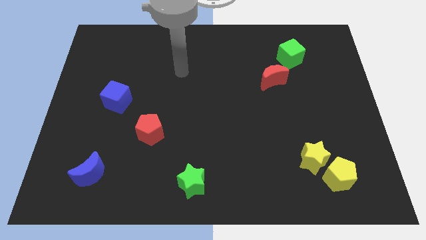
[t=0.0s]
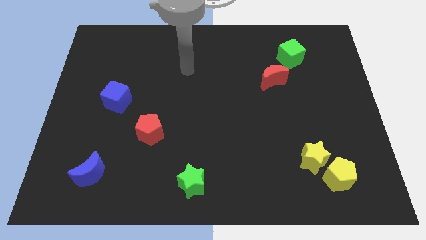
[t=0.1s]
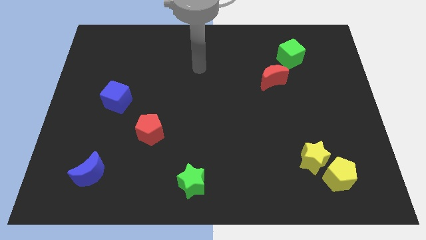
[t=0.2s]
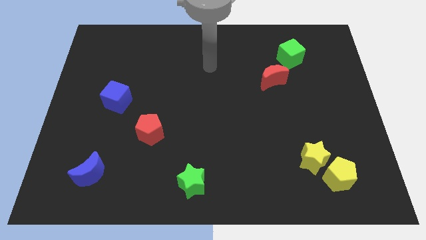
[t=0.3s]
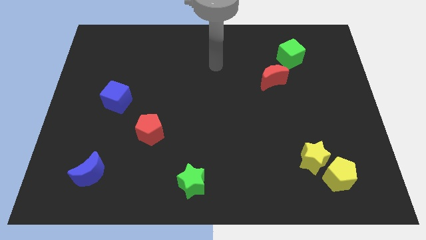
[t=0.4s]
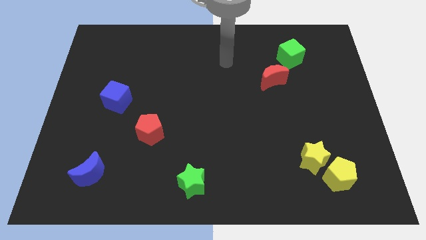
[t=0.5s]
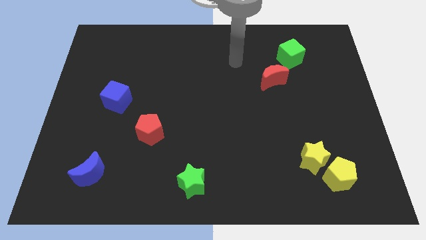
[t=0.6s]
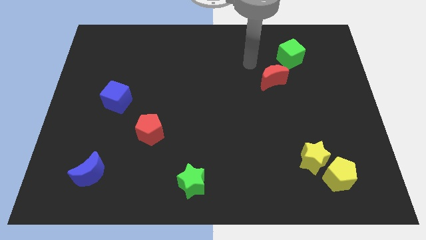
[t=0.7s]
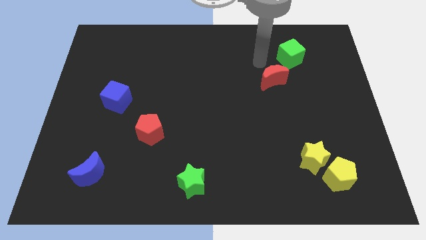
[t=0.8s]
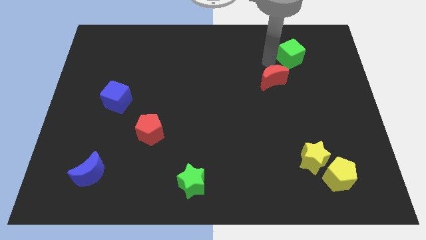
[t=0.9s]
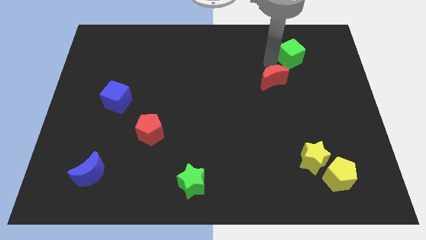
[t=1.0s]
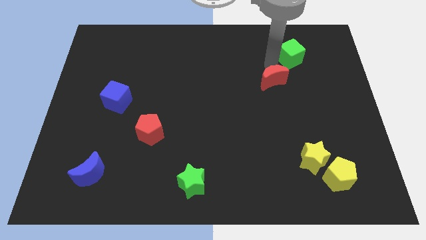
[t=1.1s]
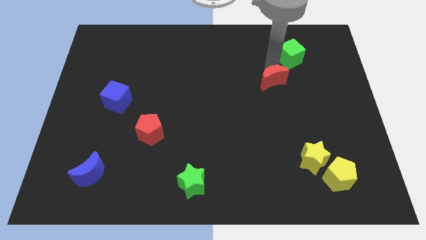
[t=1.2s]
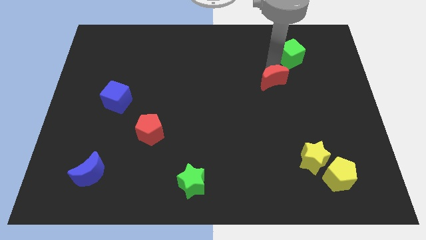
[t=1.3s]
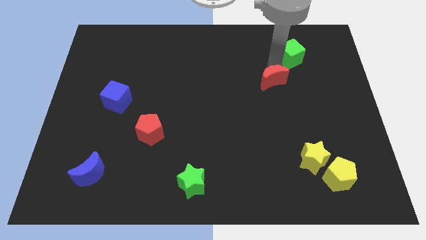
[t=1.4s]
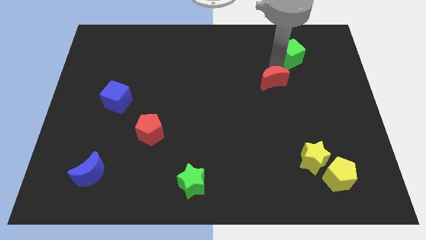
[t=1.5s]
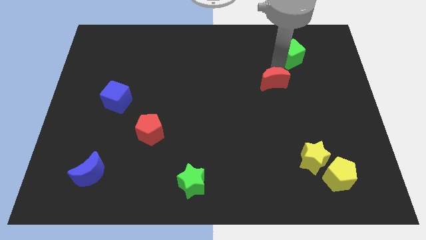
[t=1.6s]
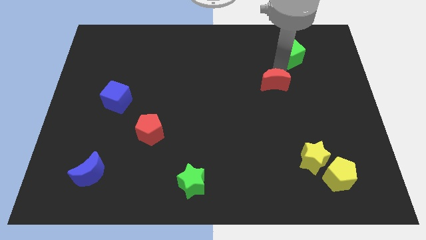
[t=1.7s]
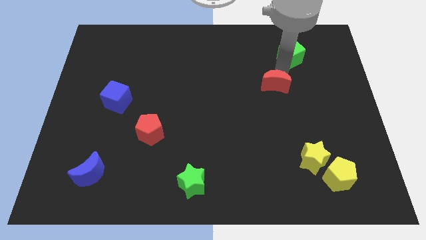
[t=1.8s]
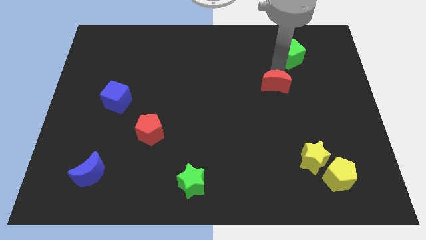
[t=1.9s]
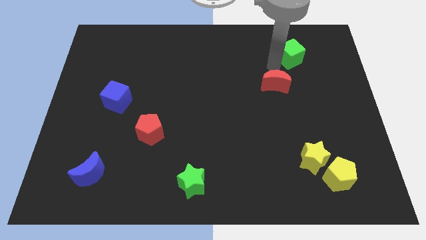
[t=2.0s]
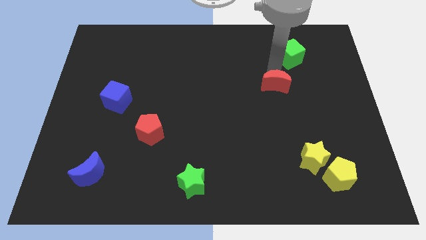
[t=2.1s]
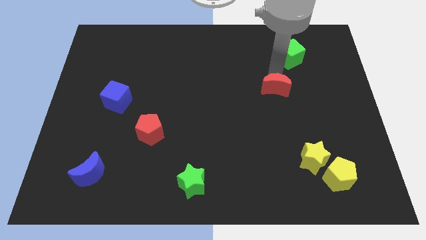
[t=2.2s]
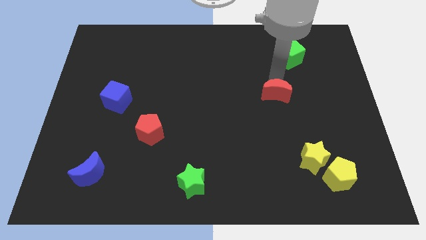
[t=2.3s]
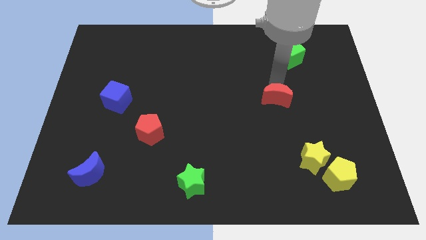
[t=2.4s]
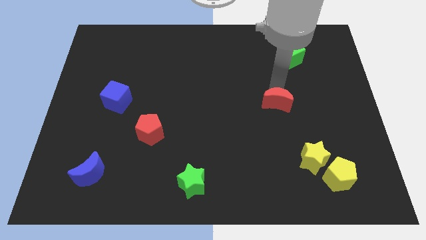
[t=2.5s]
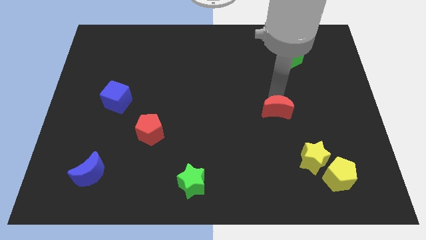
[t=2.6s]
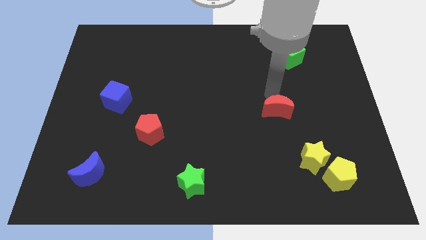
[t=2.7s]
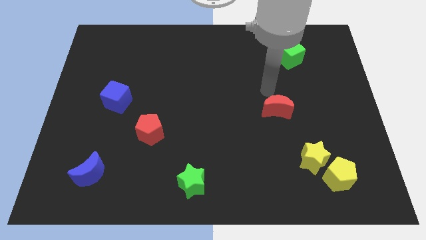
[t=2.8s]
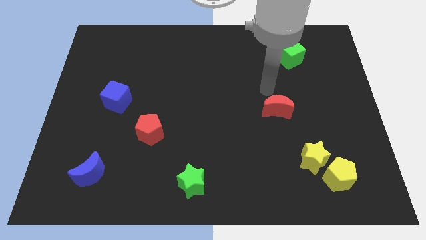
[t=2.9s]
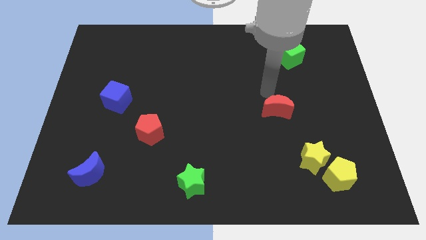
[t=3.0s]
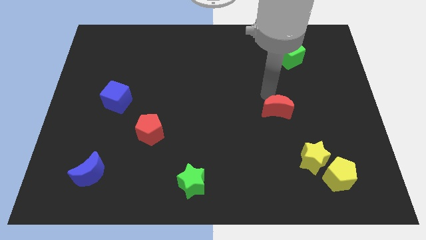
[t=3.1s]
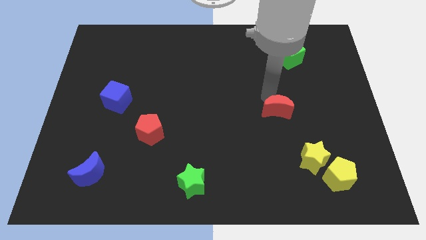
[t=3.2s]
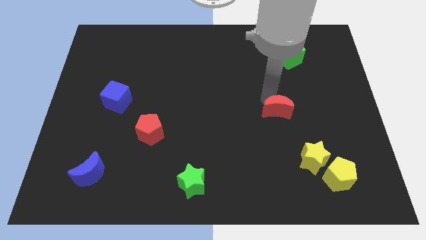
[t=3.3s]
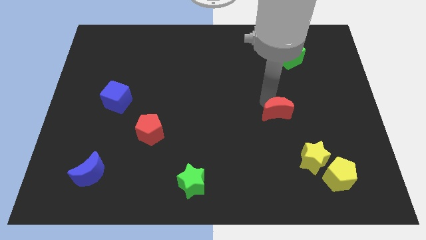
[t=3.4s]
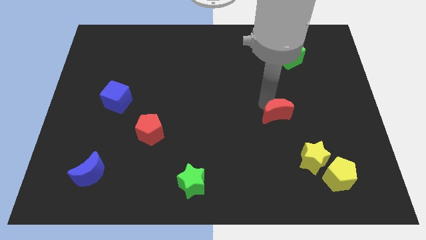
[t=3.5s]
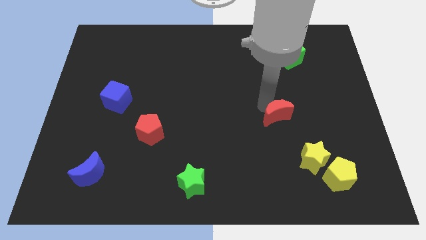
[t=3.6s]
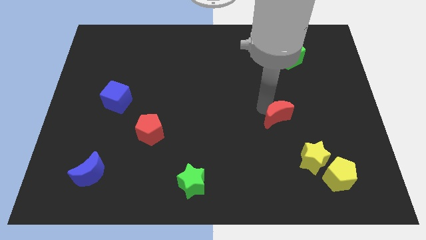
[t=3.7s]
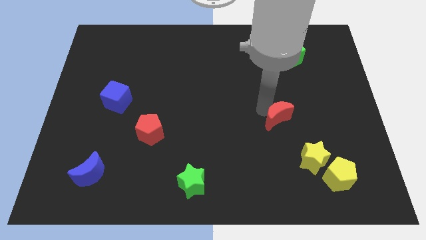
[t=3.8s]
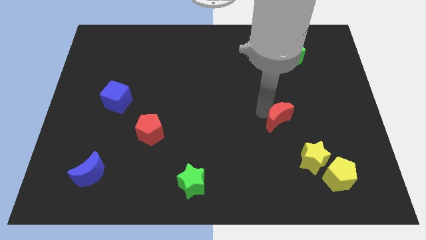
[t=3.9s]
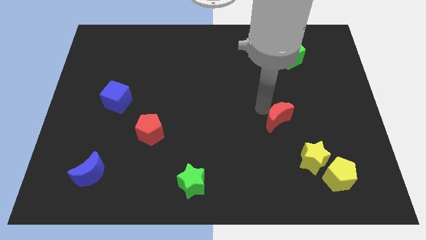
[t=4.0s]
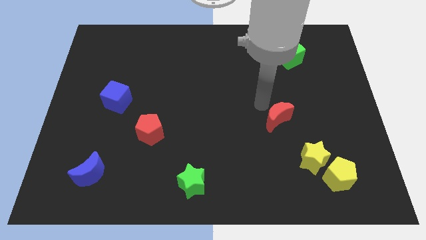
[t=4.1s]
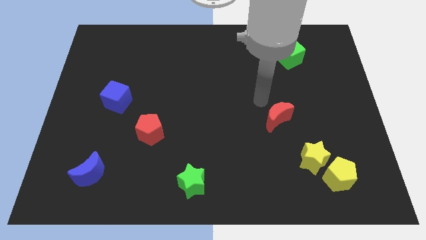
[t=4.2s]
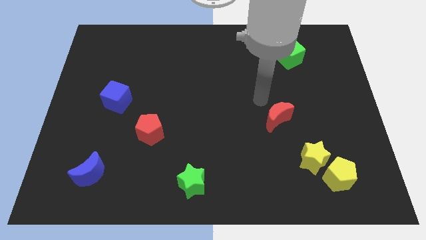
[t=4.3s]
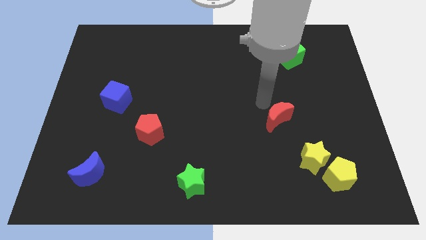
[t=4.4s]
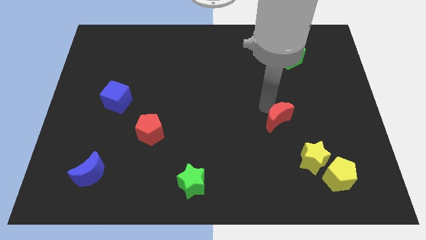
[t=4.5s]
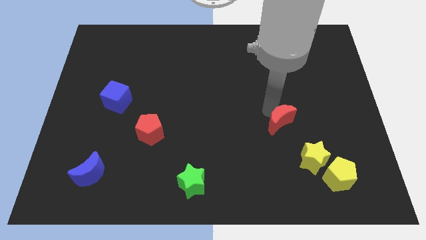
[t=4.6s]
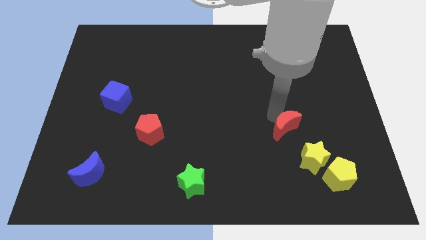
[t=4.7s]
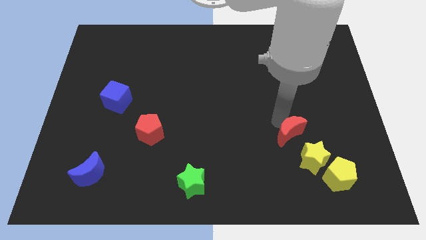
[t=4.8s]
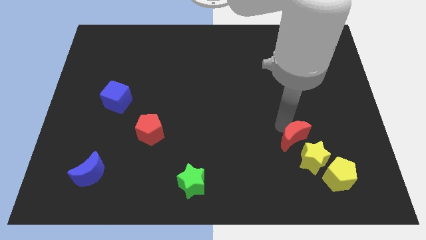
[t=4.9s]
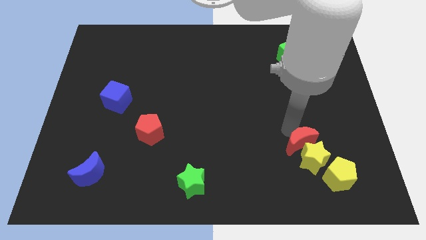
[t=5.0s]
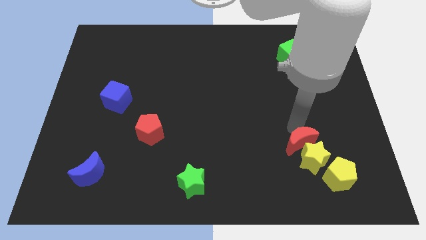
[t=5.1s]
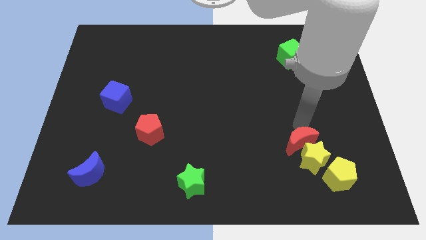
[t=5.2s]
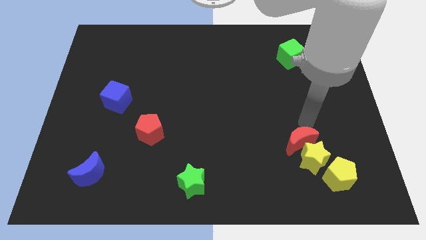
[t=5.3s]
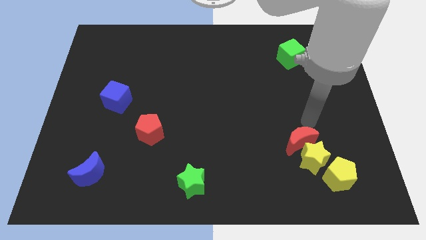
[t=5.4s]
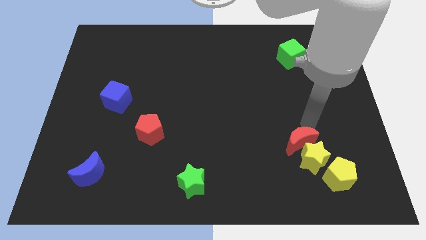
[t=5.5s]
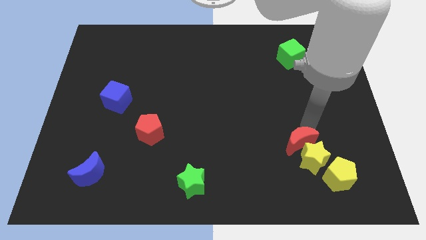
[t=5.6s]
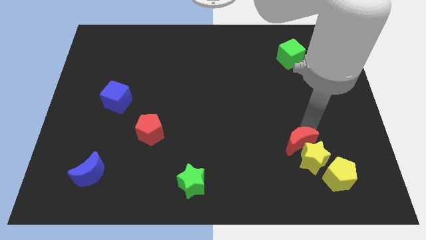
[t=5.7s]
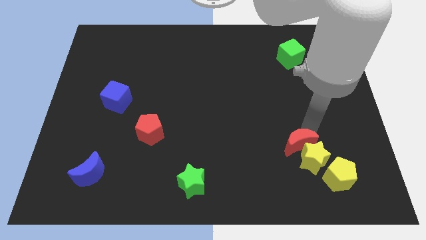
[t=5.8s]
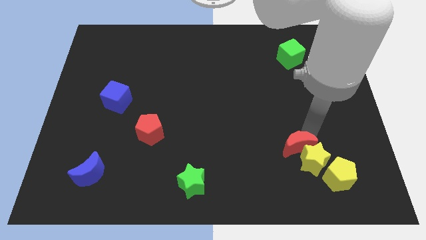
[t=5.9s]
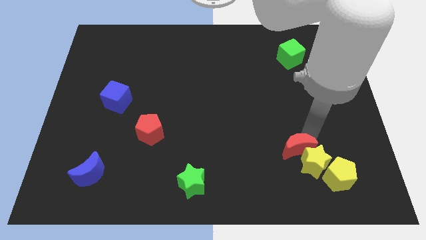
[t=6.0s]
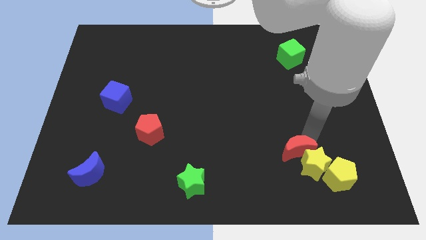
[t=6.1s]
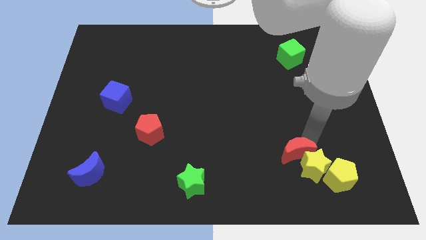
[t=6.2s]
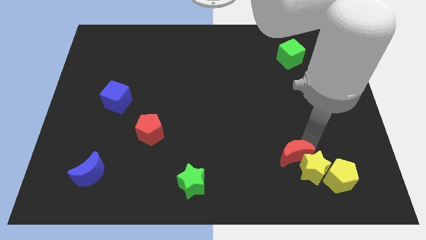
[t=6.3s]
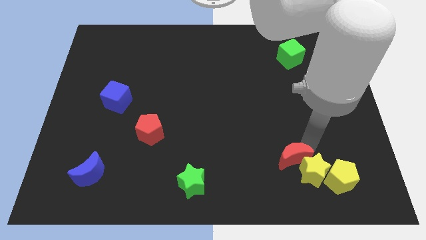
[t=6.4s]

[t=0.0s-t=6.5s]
slide the red moon left of the yellow pentagon
